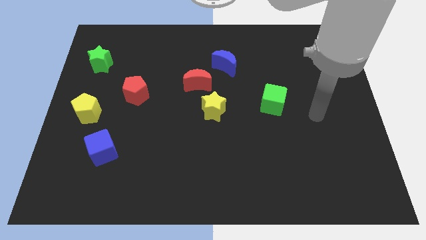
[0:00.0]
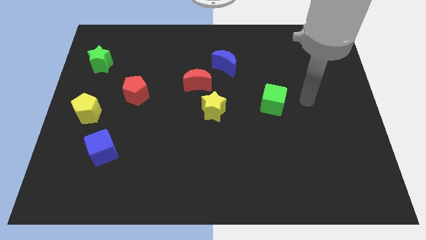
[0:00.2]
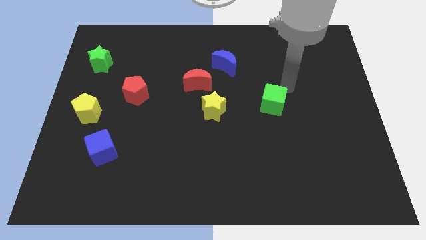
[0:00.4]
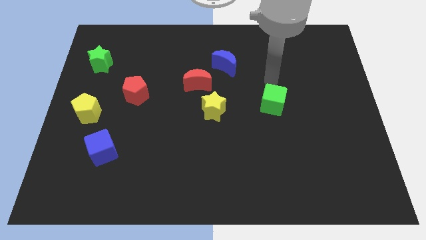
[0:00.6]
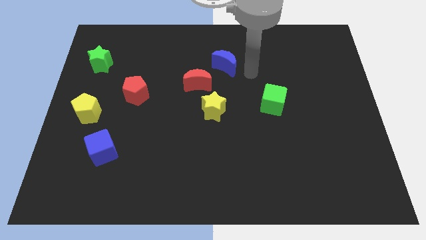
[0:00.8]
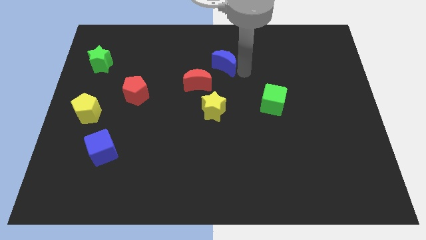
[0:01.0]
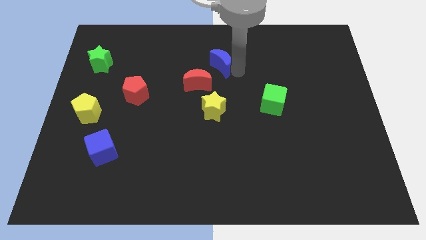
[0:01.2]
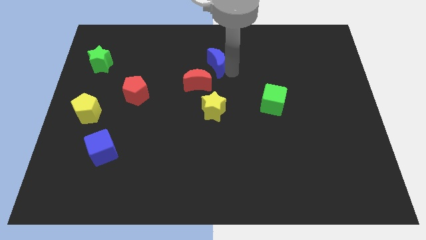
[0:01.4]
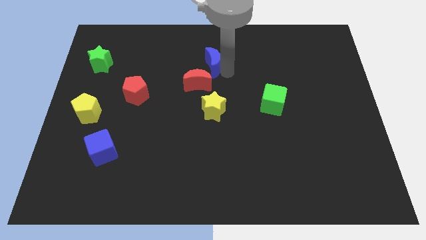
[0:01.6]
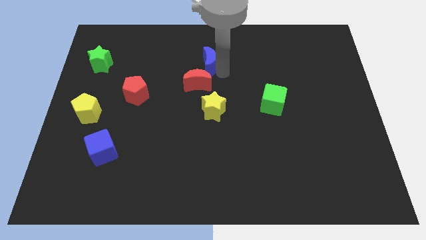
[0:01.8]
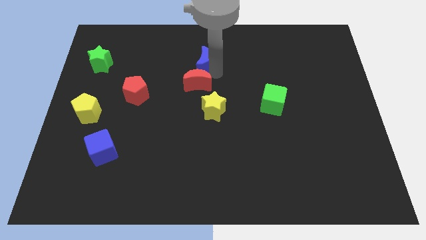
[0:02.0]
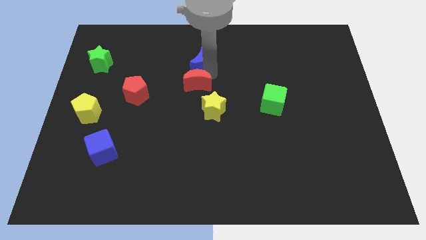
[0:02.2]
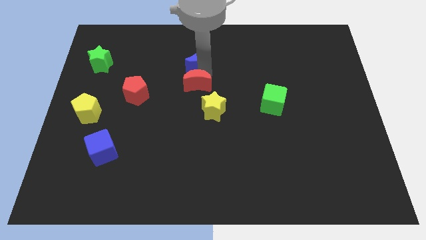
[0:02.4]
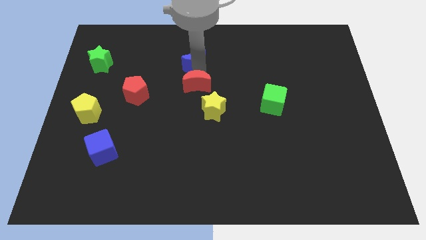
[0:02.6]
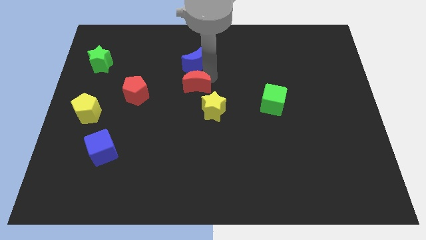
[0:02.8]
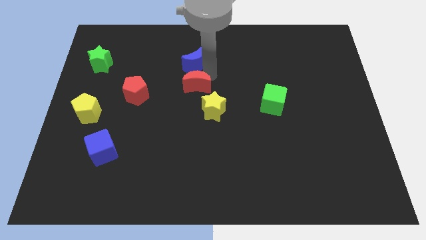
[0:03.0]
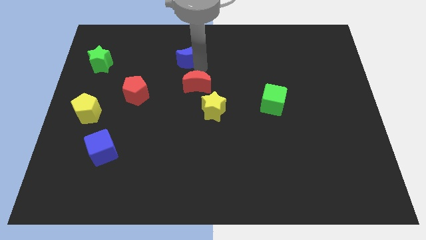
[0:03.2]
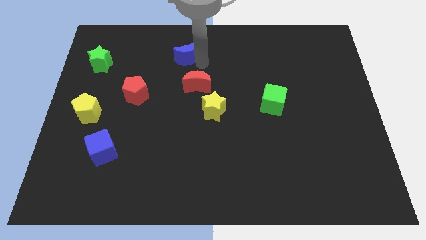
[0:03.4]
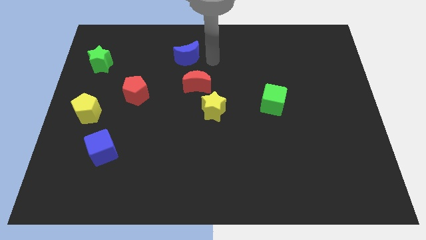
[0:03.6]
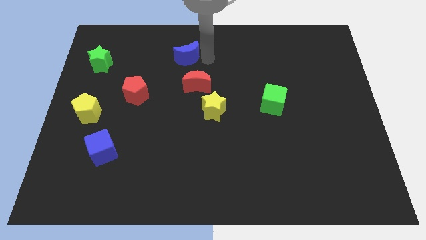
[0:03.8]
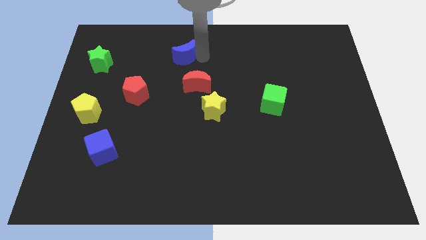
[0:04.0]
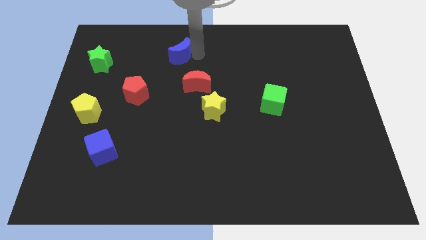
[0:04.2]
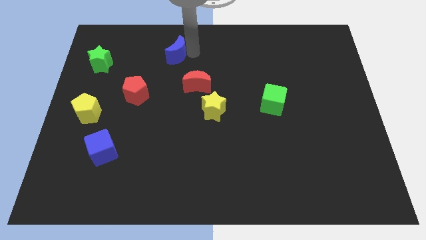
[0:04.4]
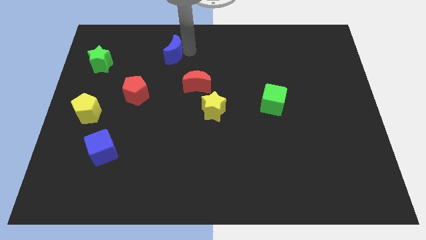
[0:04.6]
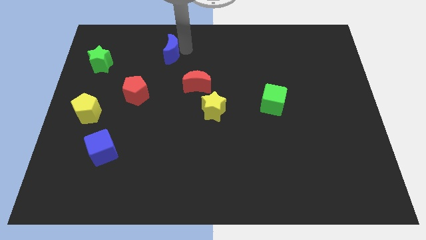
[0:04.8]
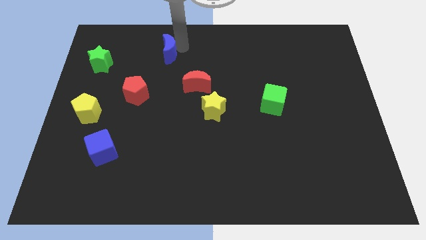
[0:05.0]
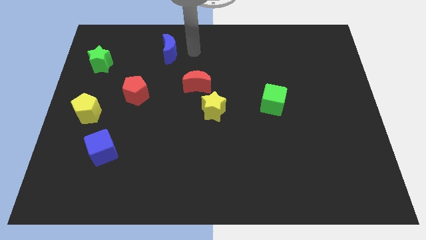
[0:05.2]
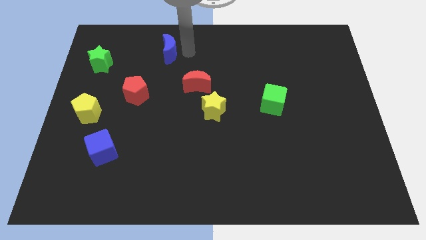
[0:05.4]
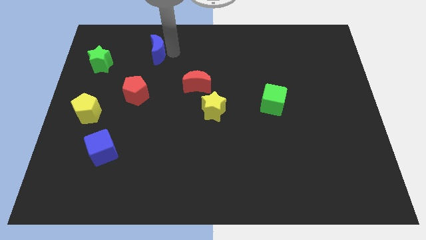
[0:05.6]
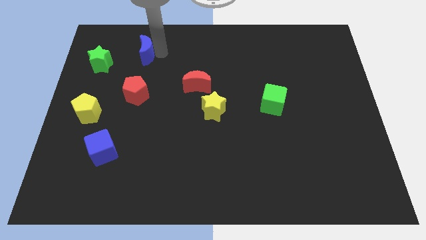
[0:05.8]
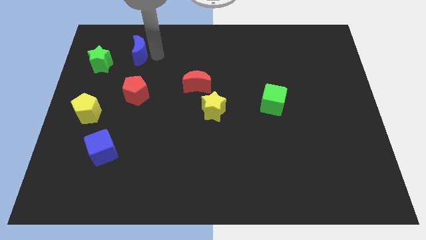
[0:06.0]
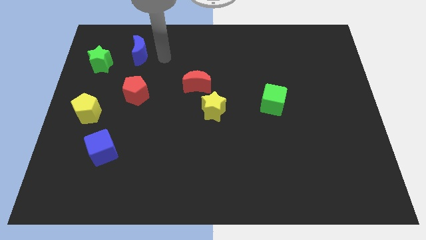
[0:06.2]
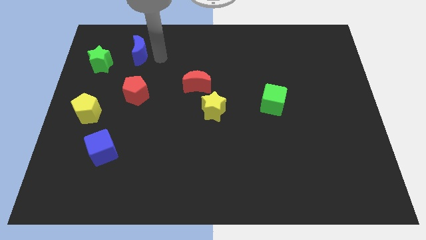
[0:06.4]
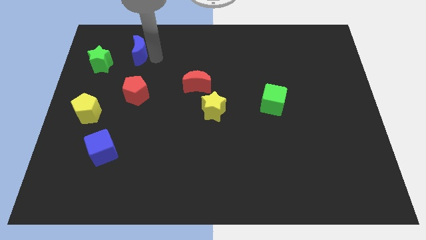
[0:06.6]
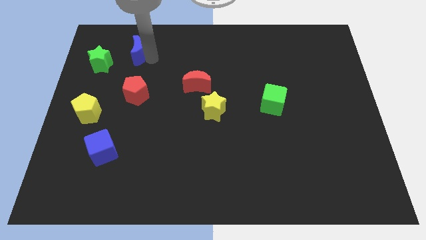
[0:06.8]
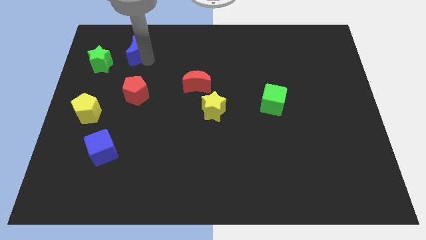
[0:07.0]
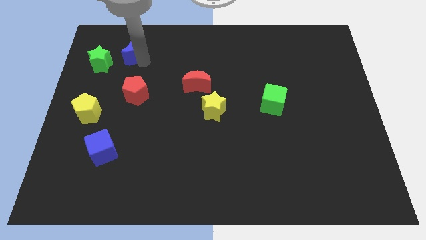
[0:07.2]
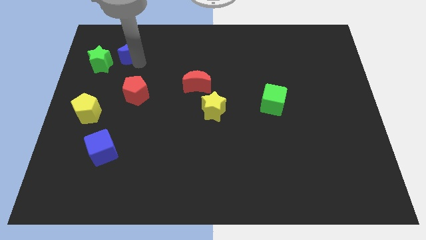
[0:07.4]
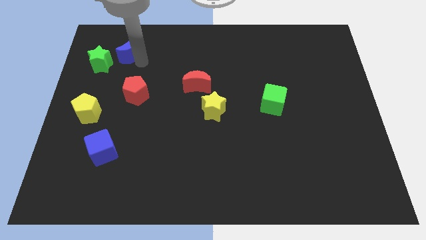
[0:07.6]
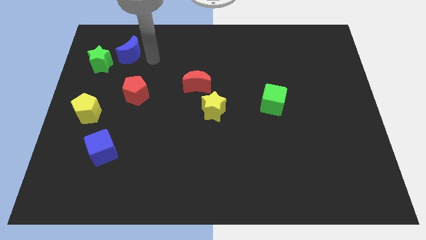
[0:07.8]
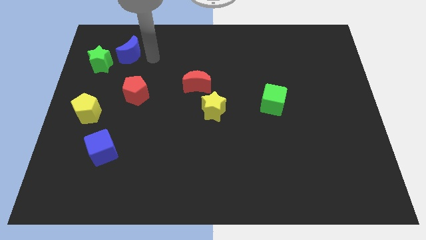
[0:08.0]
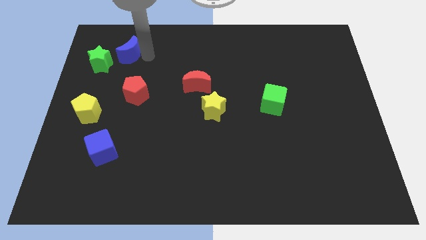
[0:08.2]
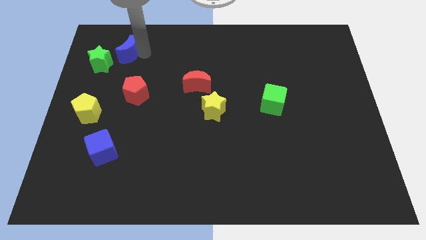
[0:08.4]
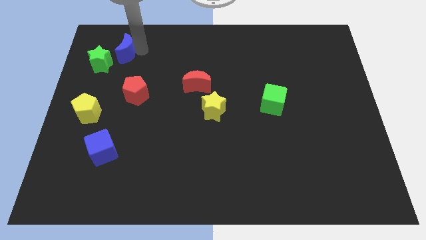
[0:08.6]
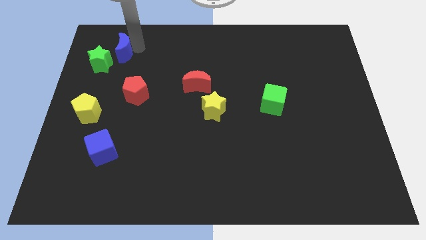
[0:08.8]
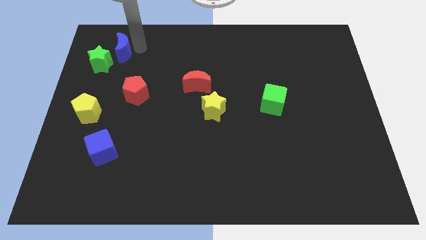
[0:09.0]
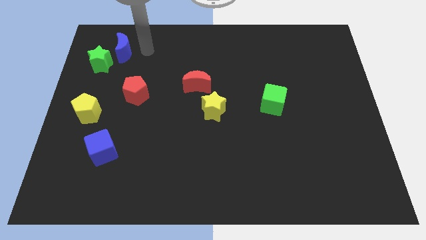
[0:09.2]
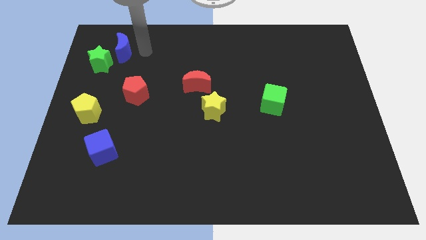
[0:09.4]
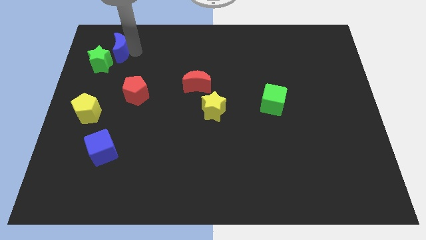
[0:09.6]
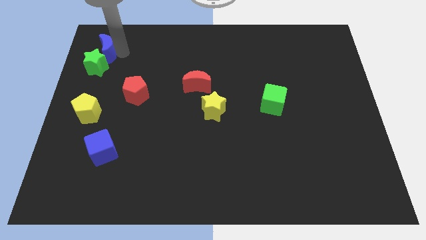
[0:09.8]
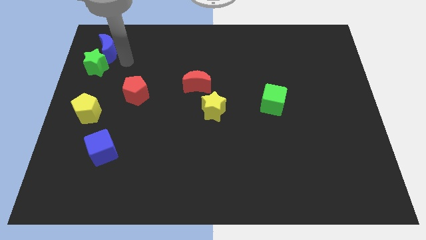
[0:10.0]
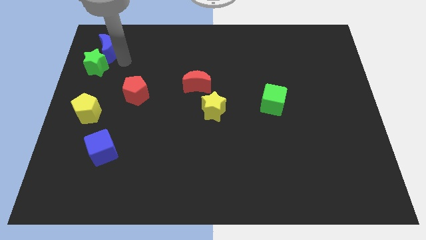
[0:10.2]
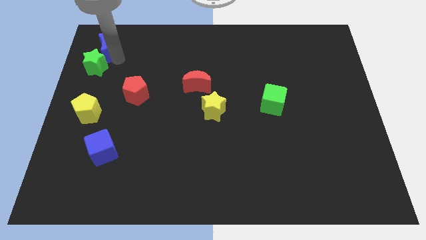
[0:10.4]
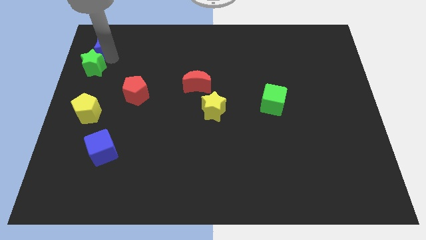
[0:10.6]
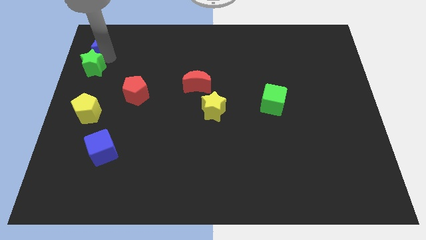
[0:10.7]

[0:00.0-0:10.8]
put the blue moon to the top left of the board

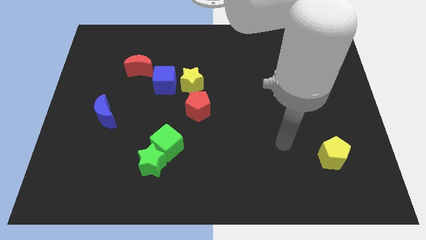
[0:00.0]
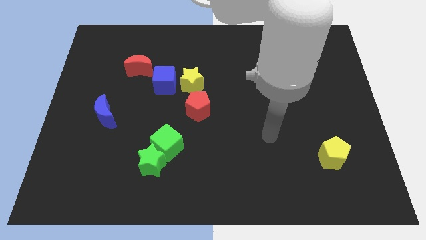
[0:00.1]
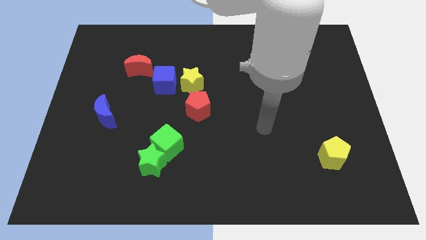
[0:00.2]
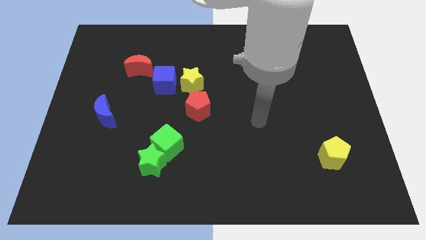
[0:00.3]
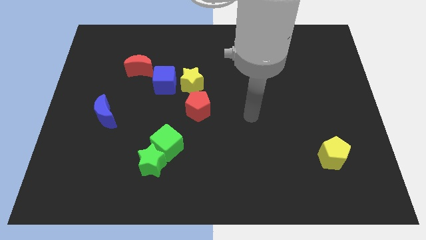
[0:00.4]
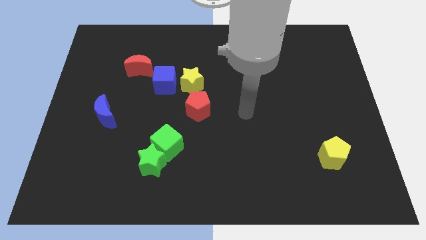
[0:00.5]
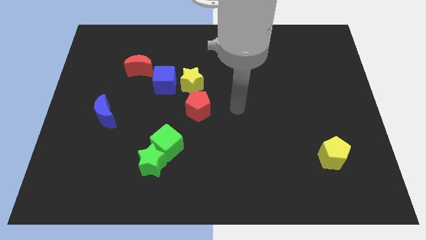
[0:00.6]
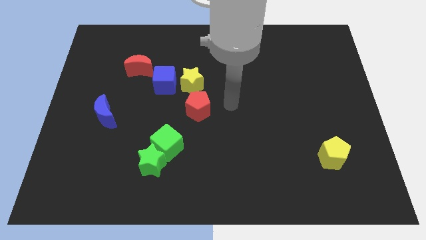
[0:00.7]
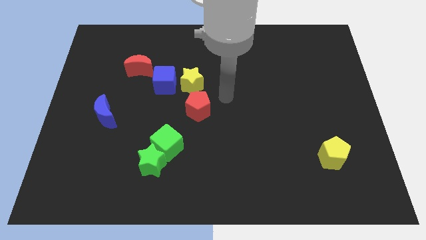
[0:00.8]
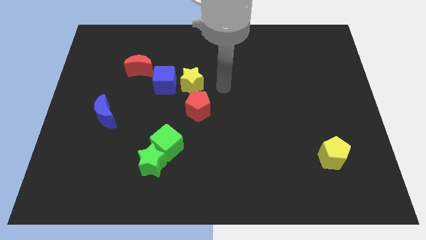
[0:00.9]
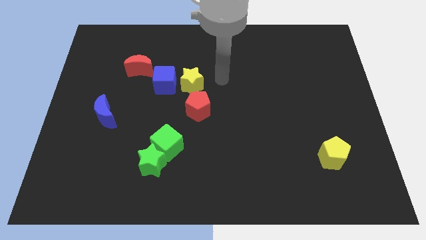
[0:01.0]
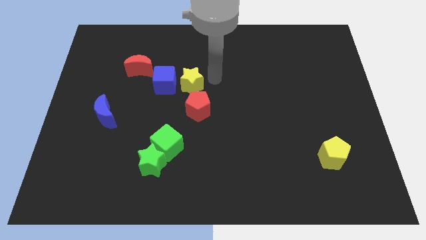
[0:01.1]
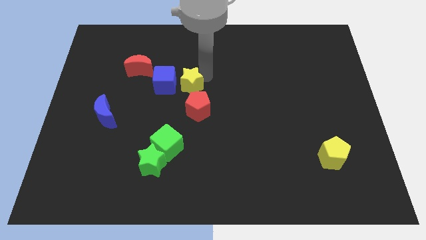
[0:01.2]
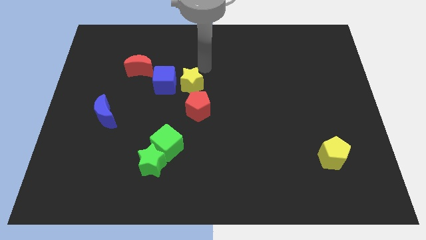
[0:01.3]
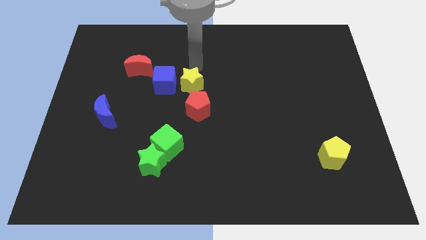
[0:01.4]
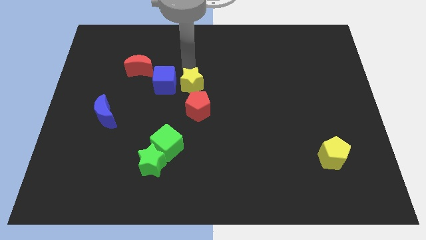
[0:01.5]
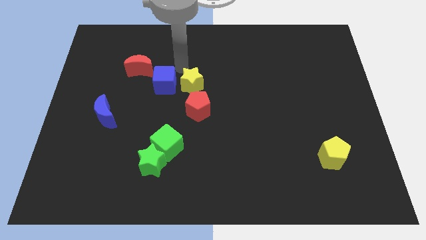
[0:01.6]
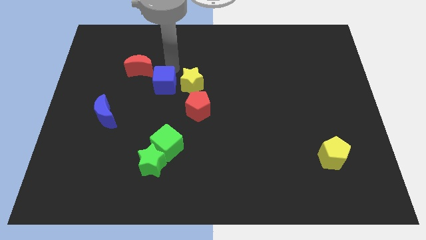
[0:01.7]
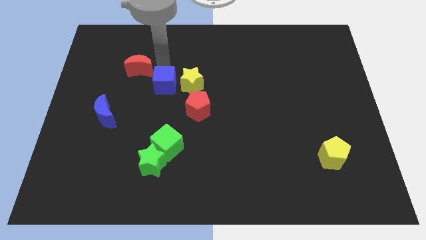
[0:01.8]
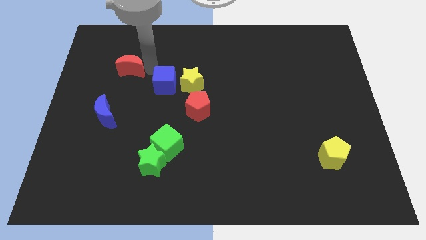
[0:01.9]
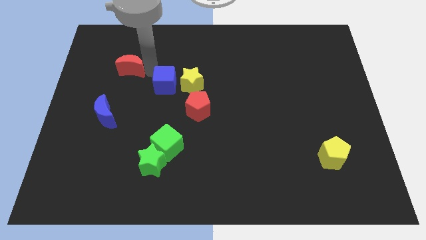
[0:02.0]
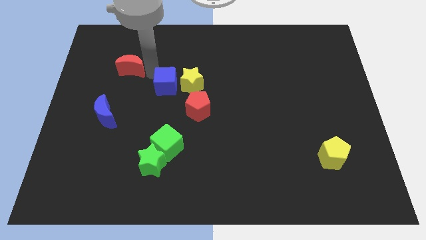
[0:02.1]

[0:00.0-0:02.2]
push the blue cube to the middle of the board

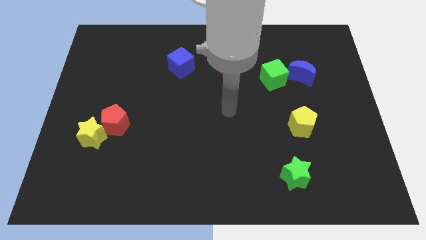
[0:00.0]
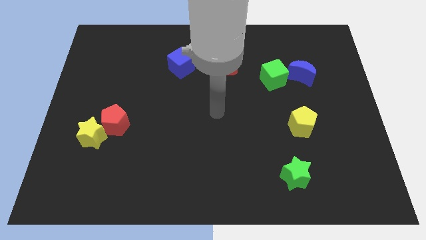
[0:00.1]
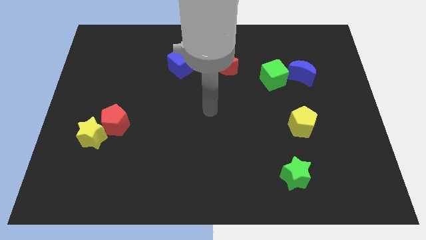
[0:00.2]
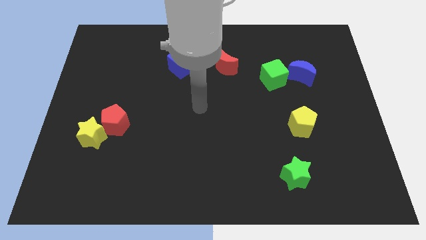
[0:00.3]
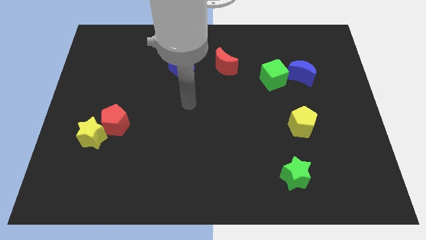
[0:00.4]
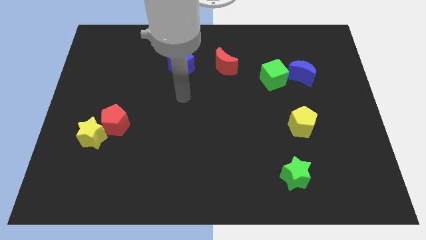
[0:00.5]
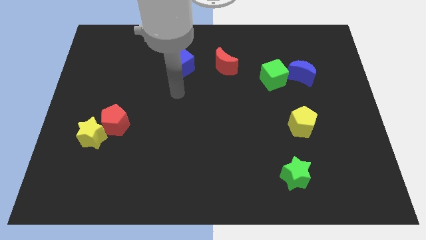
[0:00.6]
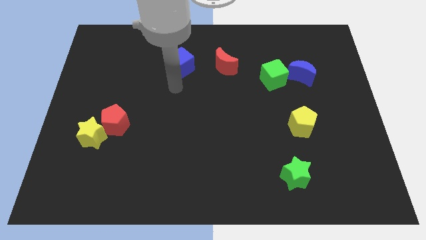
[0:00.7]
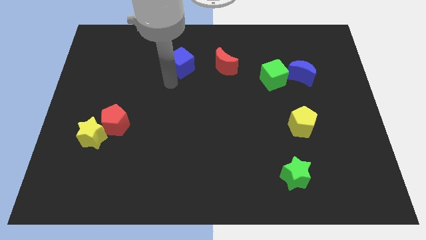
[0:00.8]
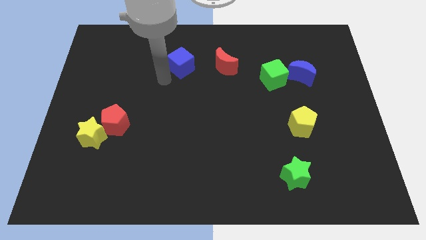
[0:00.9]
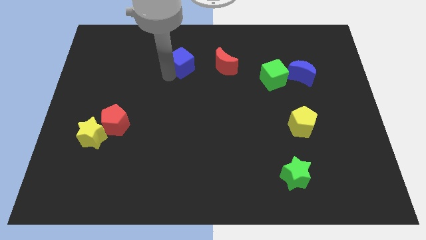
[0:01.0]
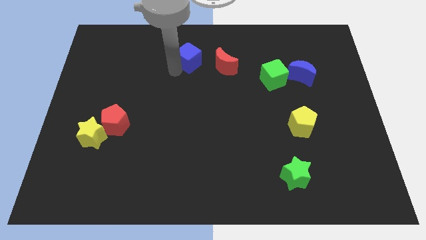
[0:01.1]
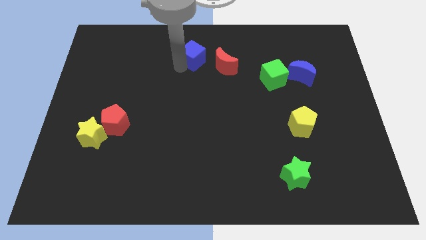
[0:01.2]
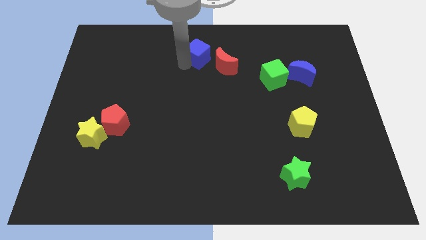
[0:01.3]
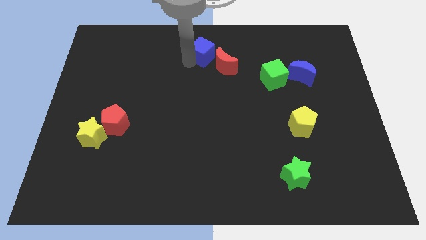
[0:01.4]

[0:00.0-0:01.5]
slide the blue cube to the top side
